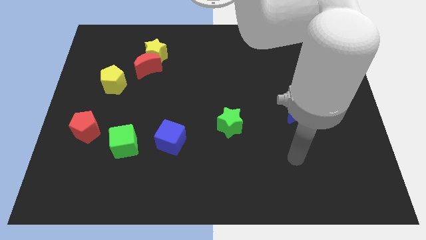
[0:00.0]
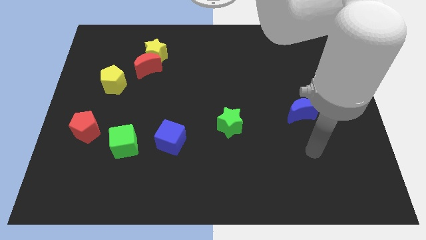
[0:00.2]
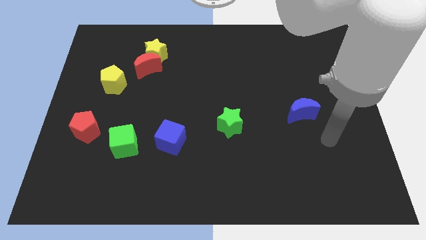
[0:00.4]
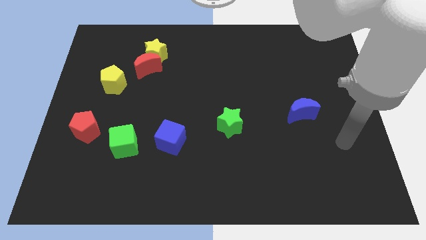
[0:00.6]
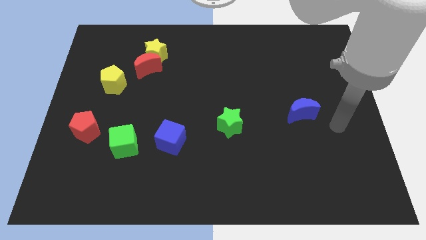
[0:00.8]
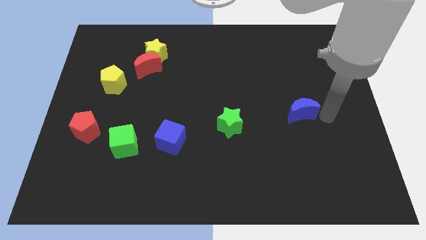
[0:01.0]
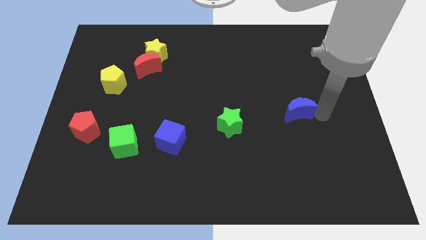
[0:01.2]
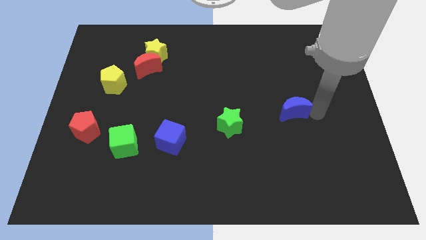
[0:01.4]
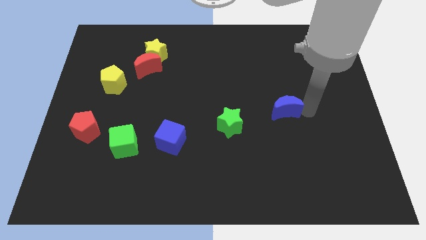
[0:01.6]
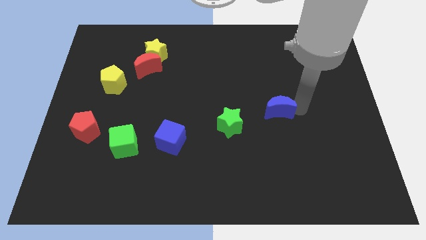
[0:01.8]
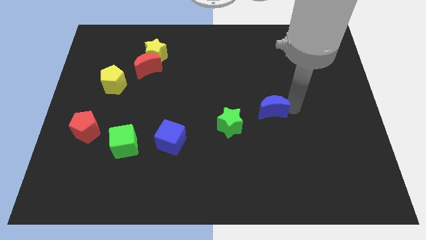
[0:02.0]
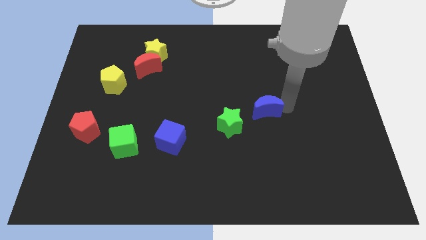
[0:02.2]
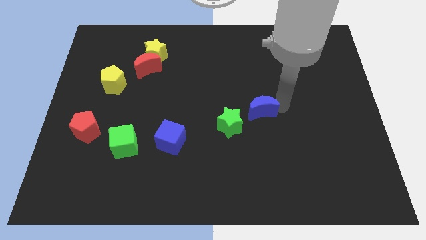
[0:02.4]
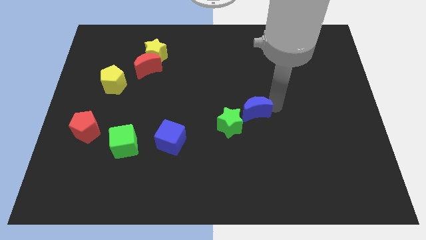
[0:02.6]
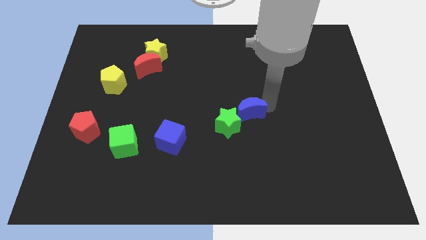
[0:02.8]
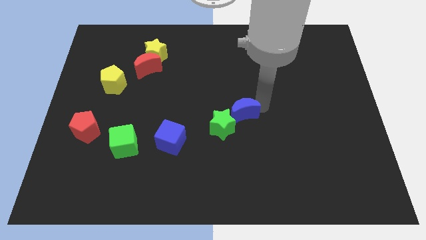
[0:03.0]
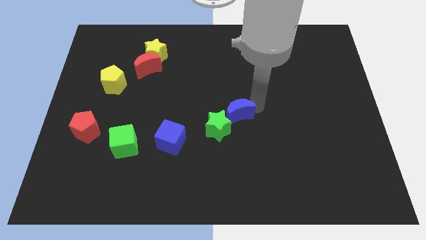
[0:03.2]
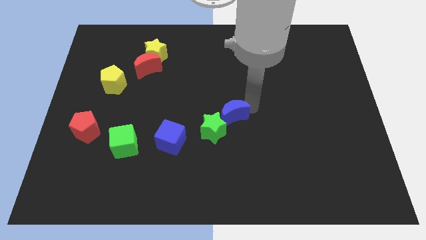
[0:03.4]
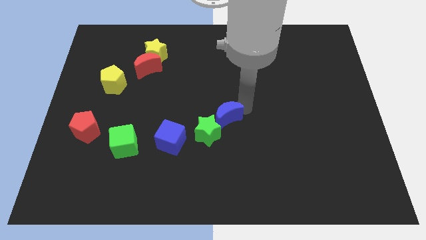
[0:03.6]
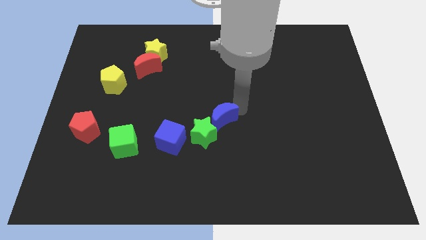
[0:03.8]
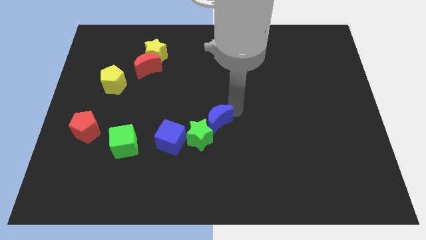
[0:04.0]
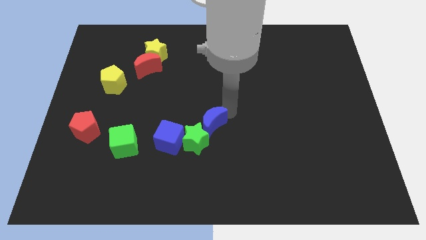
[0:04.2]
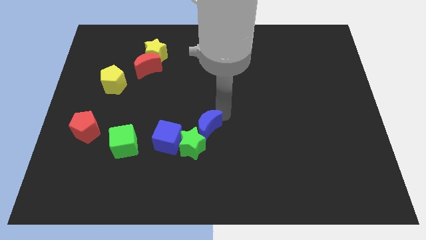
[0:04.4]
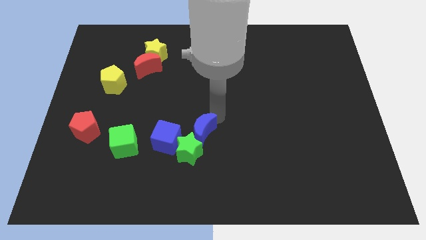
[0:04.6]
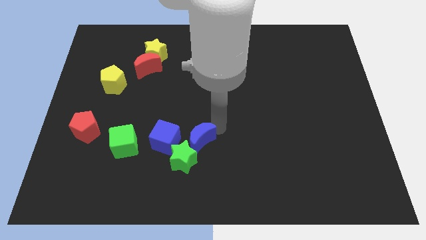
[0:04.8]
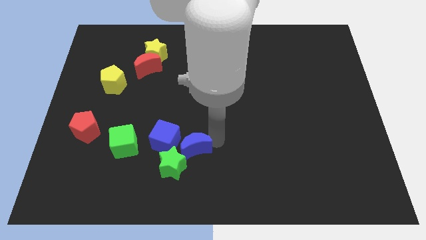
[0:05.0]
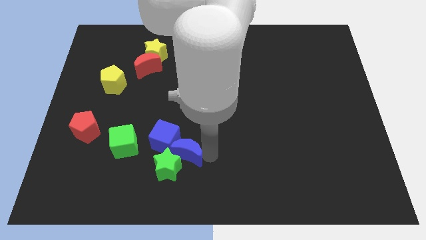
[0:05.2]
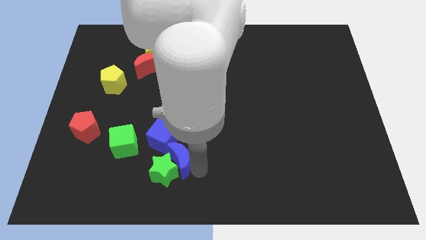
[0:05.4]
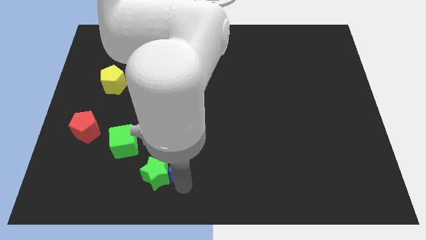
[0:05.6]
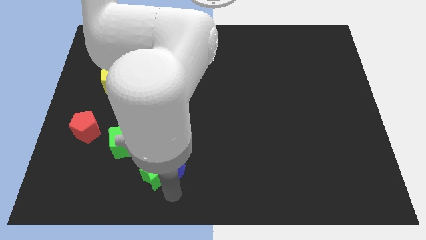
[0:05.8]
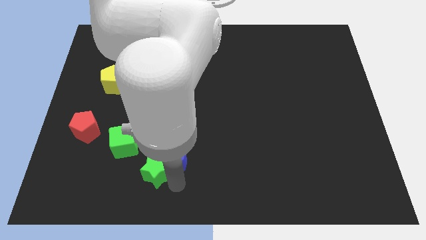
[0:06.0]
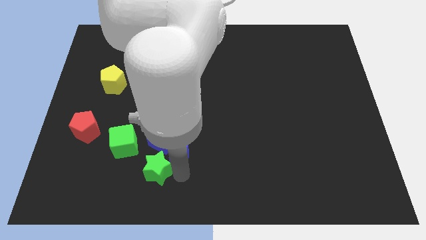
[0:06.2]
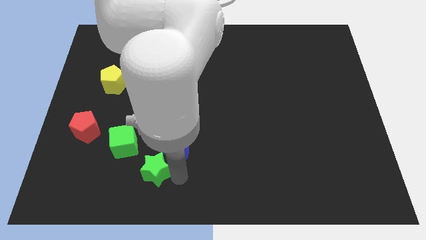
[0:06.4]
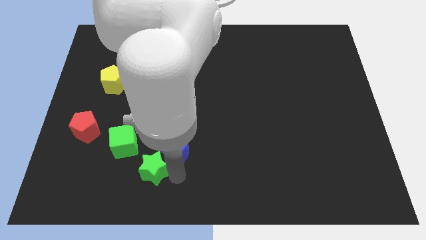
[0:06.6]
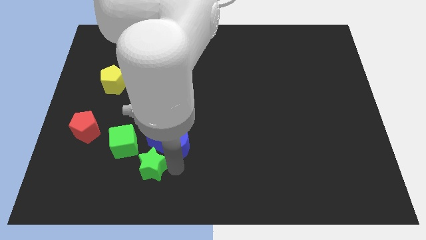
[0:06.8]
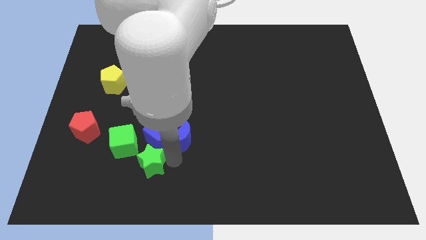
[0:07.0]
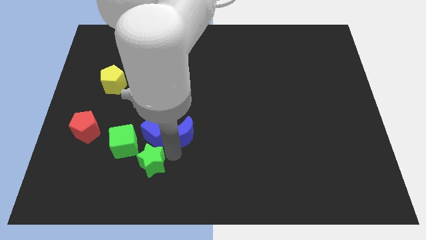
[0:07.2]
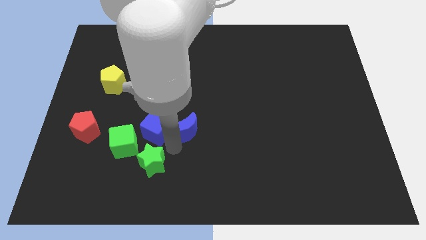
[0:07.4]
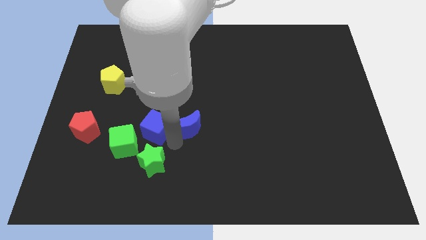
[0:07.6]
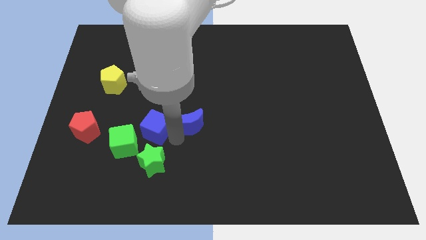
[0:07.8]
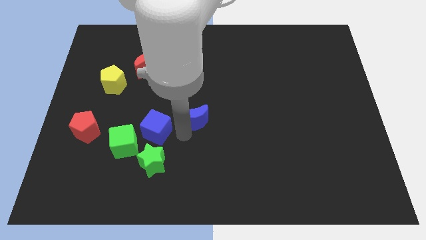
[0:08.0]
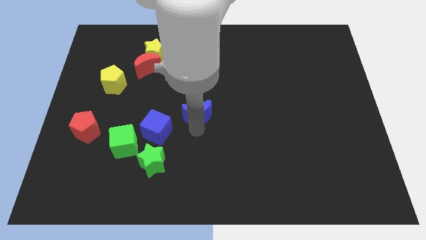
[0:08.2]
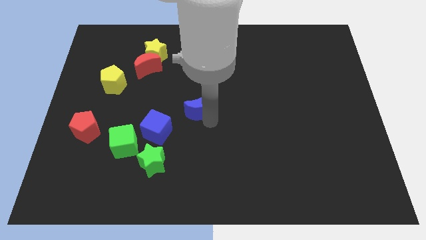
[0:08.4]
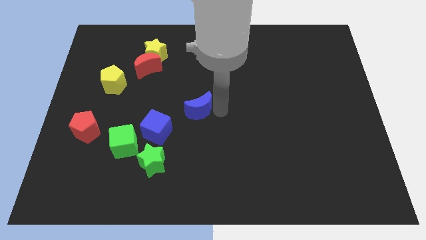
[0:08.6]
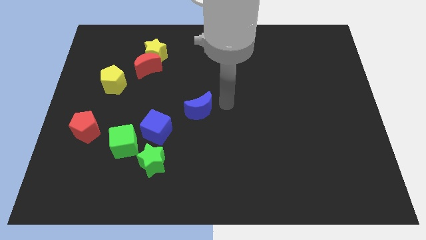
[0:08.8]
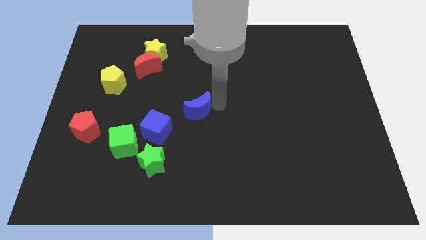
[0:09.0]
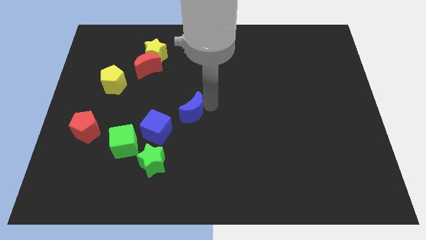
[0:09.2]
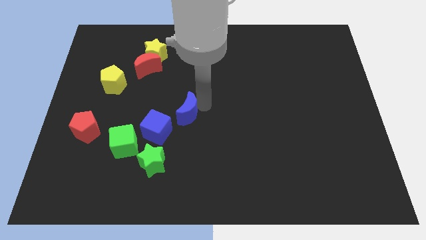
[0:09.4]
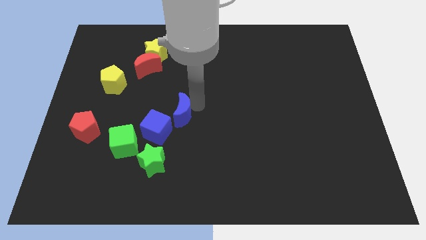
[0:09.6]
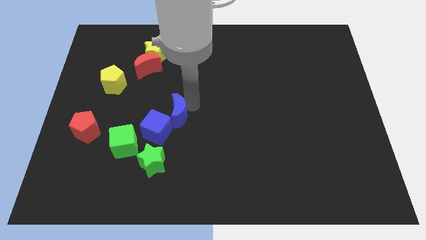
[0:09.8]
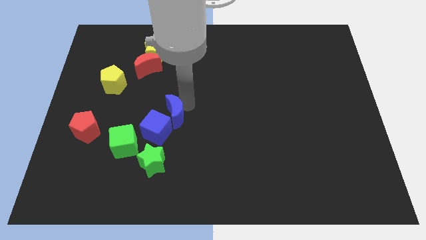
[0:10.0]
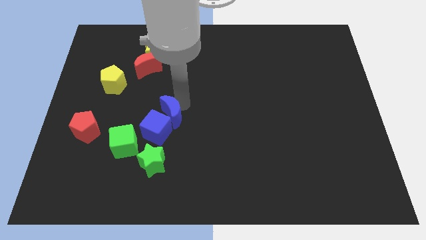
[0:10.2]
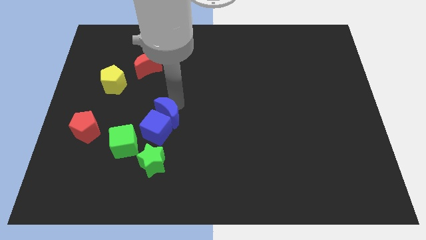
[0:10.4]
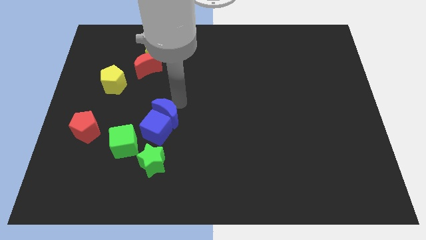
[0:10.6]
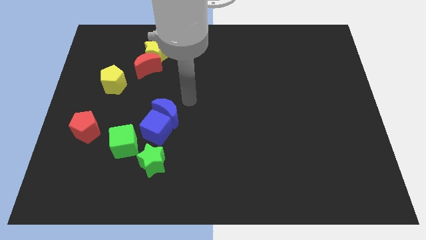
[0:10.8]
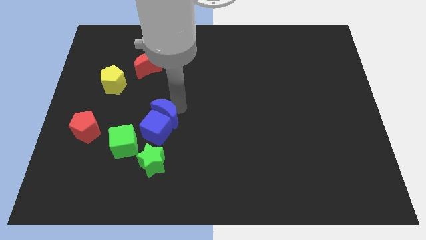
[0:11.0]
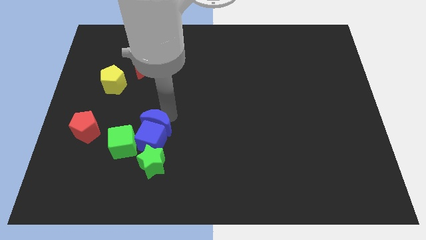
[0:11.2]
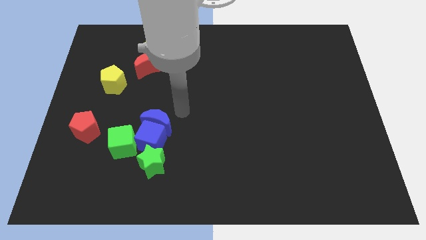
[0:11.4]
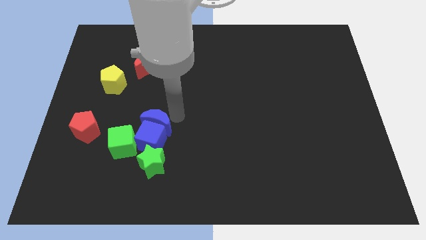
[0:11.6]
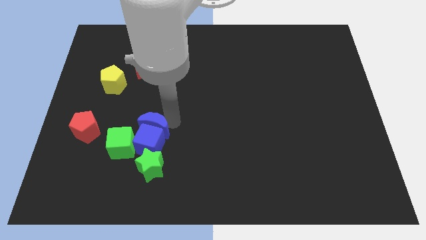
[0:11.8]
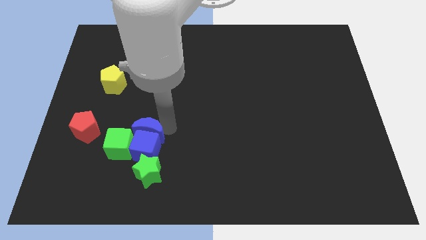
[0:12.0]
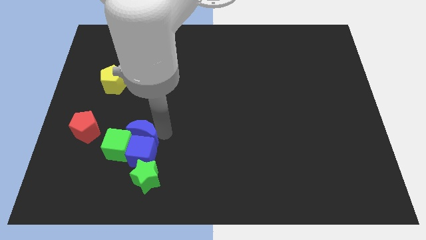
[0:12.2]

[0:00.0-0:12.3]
put the blue moon to the green cube

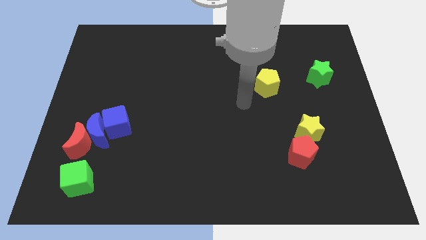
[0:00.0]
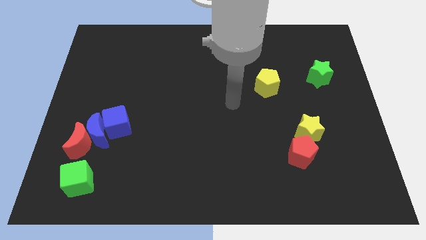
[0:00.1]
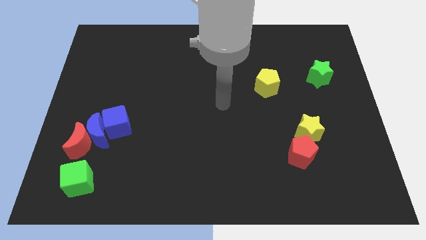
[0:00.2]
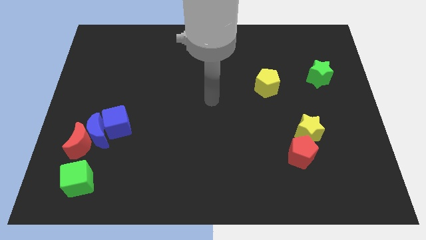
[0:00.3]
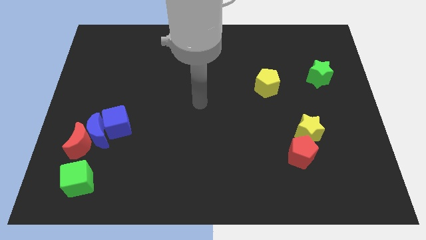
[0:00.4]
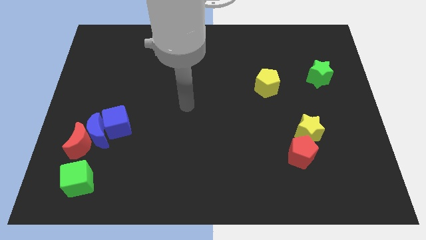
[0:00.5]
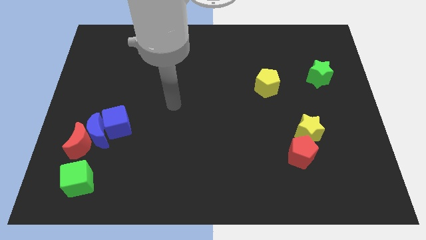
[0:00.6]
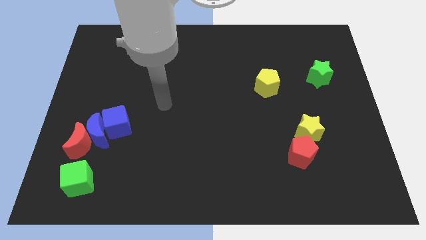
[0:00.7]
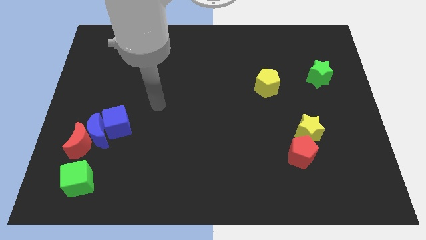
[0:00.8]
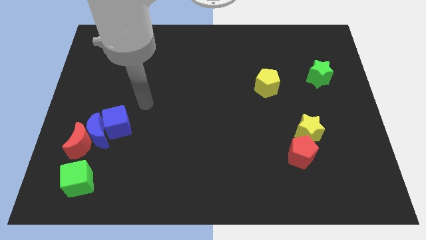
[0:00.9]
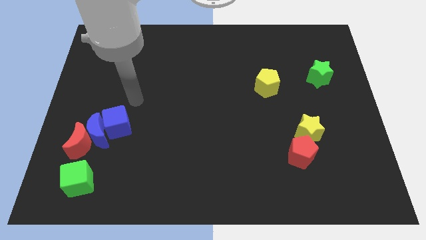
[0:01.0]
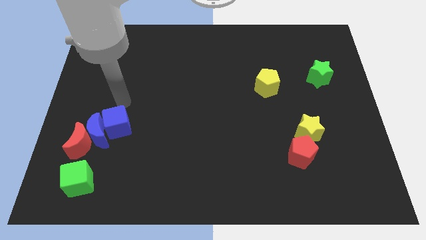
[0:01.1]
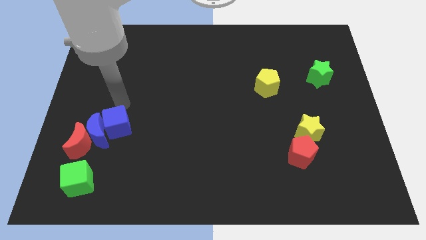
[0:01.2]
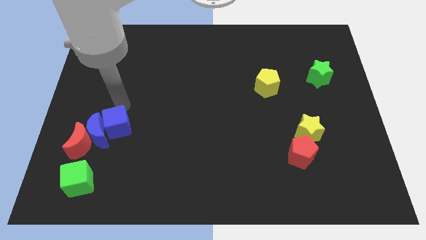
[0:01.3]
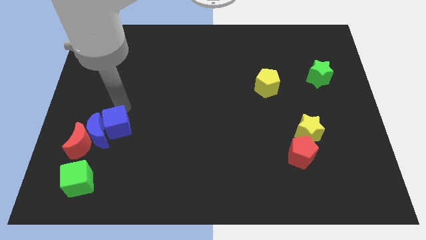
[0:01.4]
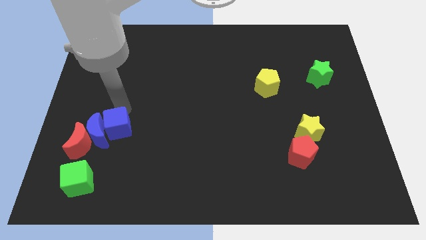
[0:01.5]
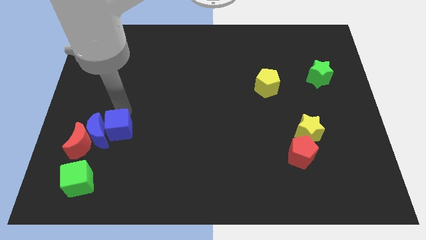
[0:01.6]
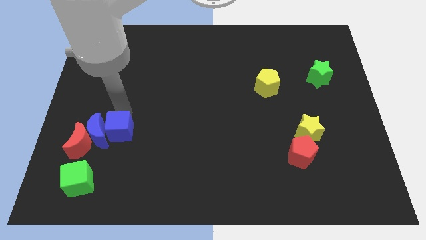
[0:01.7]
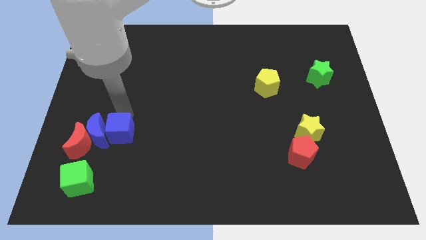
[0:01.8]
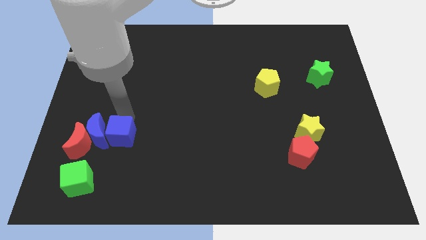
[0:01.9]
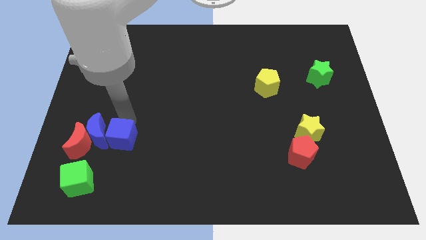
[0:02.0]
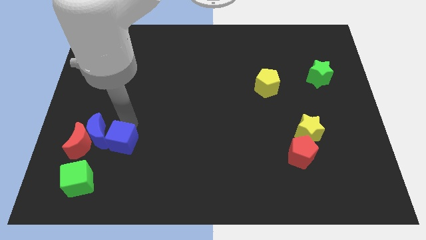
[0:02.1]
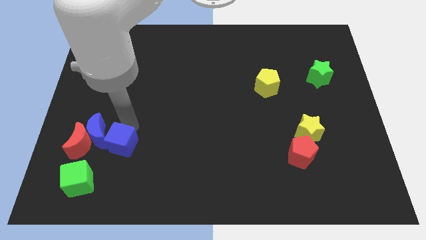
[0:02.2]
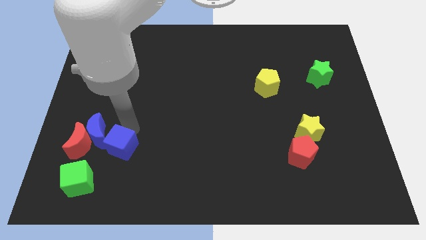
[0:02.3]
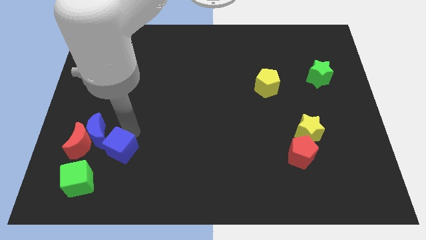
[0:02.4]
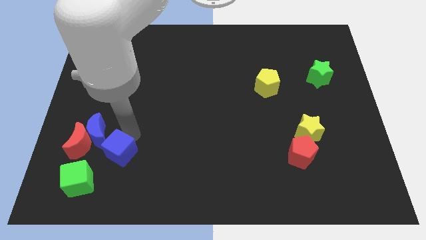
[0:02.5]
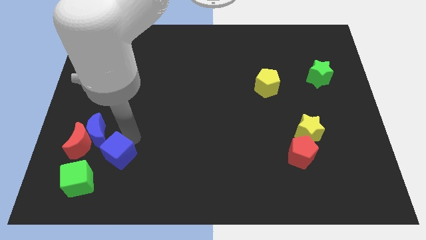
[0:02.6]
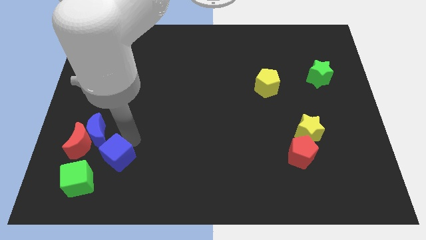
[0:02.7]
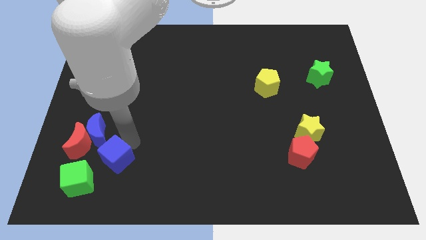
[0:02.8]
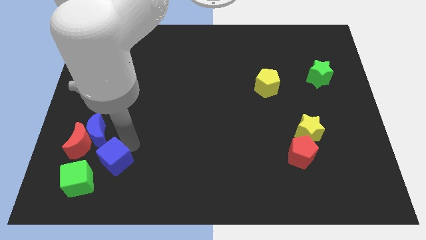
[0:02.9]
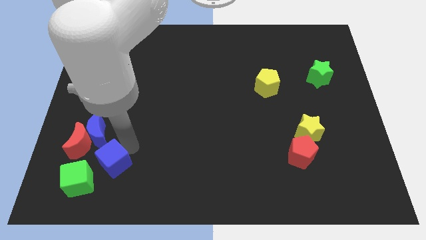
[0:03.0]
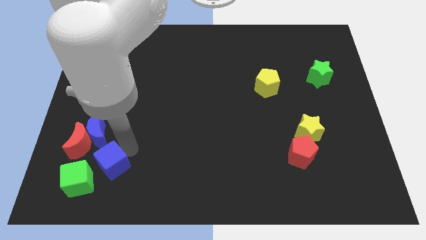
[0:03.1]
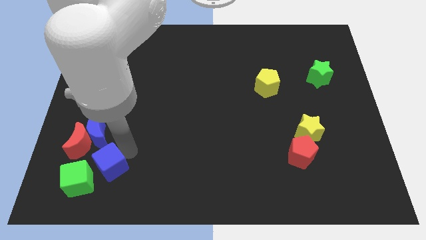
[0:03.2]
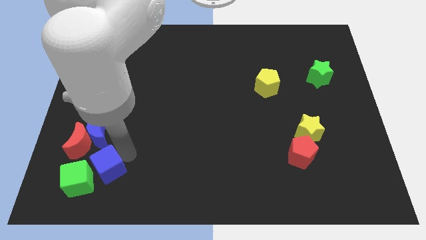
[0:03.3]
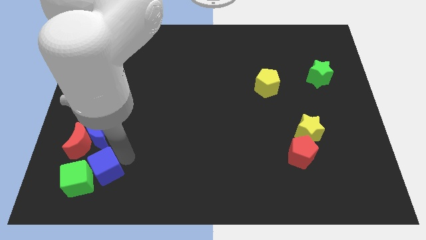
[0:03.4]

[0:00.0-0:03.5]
put the blue cube next to the green cube
